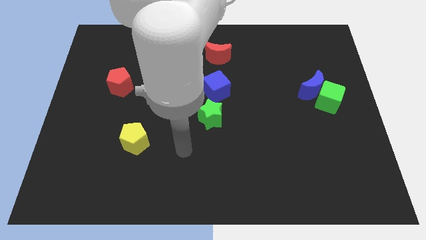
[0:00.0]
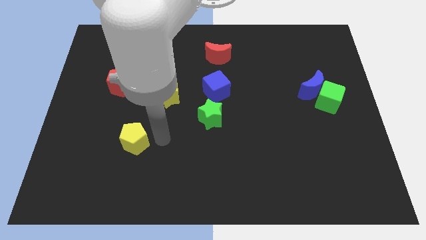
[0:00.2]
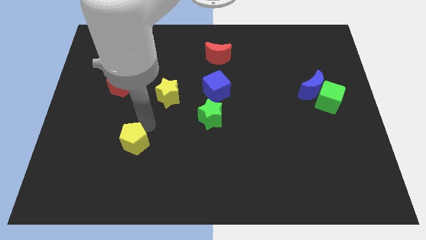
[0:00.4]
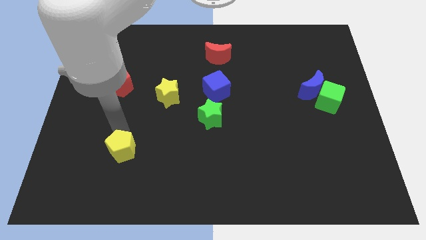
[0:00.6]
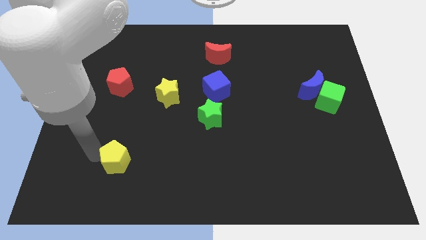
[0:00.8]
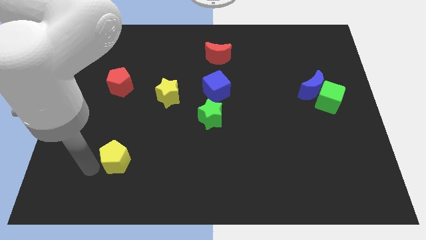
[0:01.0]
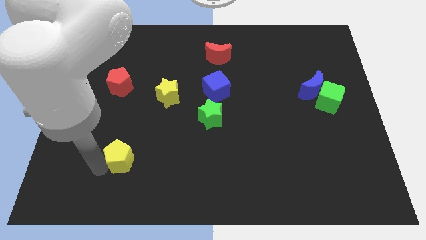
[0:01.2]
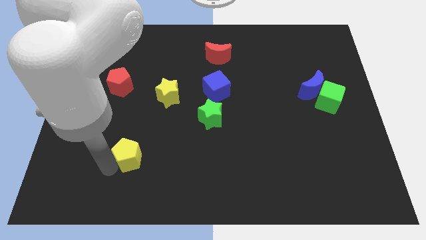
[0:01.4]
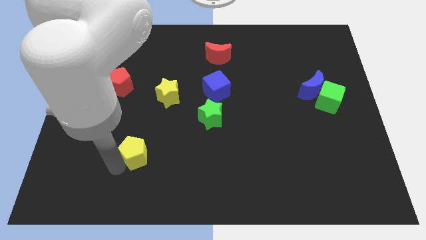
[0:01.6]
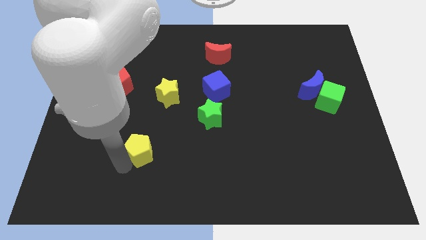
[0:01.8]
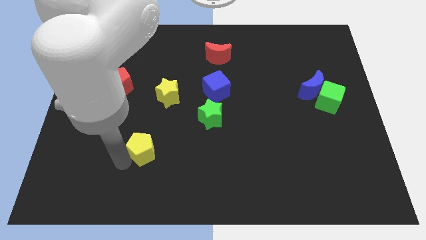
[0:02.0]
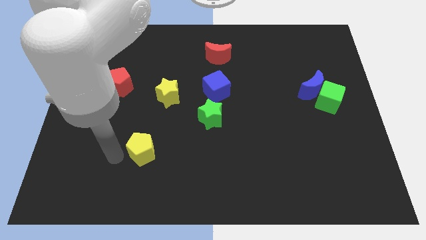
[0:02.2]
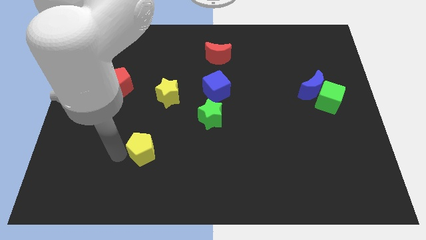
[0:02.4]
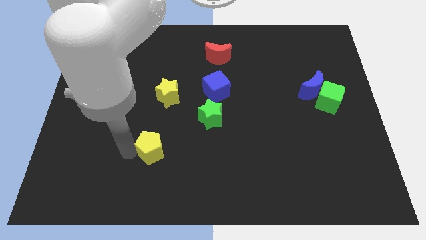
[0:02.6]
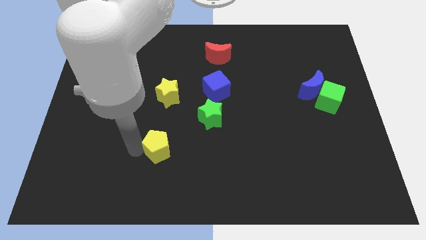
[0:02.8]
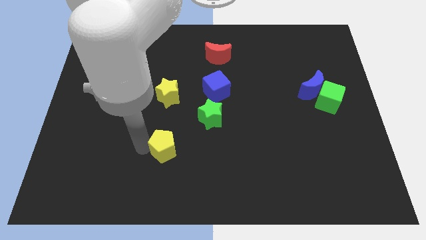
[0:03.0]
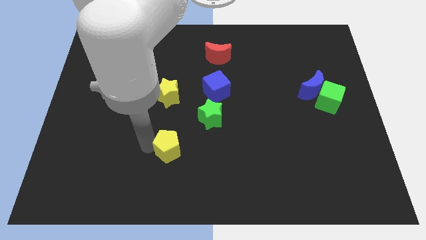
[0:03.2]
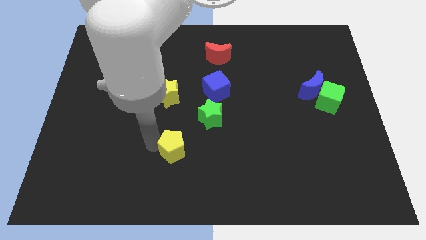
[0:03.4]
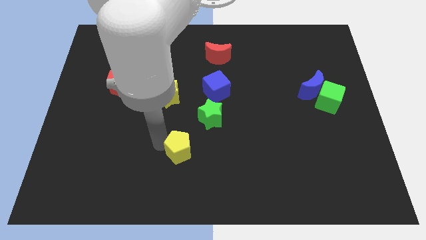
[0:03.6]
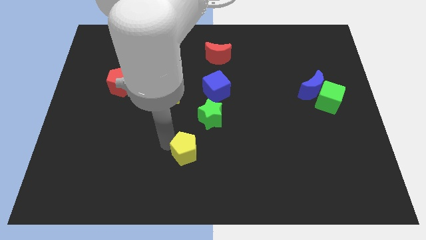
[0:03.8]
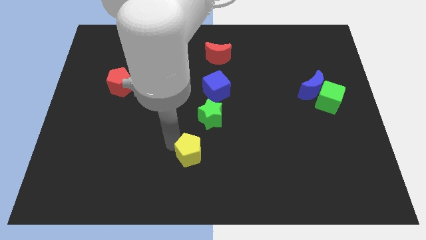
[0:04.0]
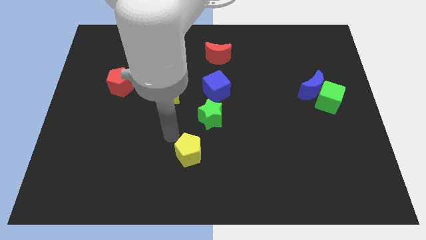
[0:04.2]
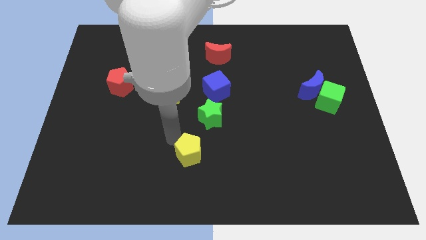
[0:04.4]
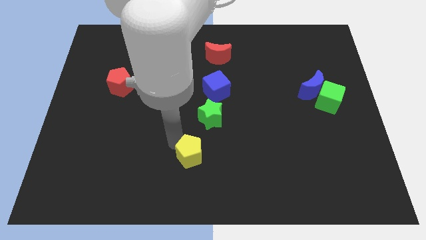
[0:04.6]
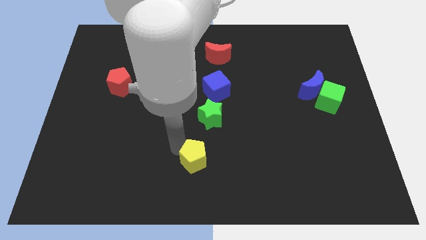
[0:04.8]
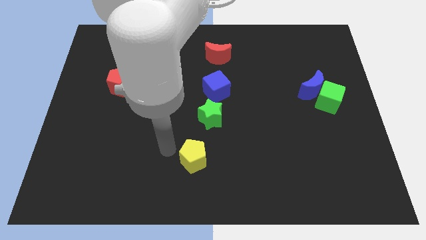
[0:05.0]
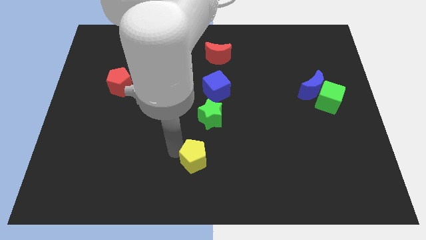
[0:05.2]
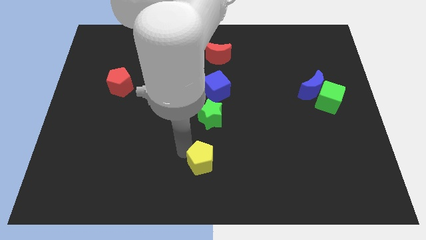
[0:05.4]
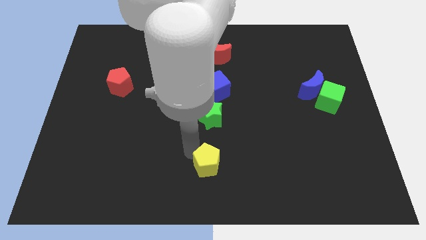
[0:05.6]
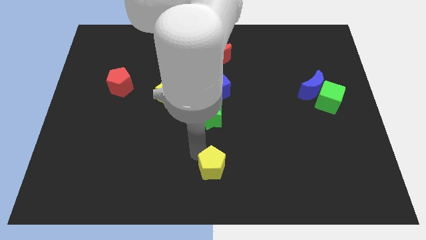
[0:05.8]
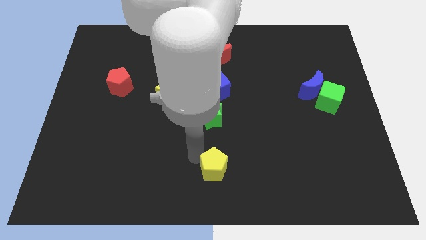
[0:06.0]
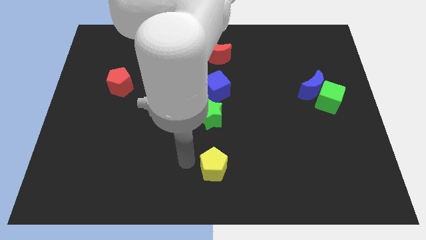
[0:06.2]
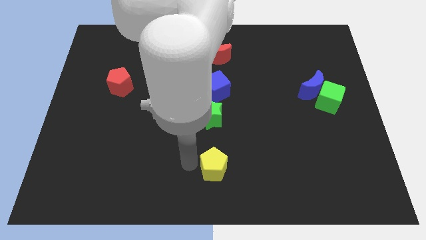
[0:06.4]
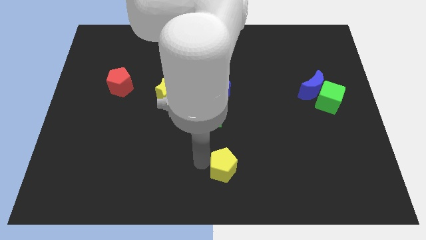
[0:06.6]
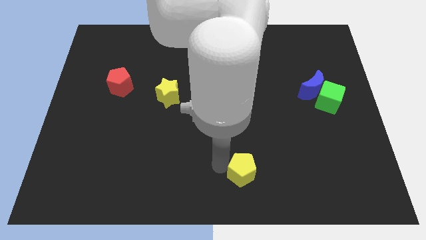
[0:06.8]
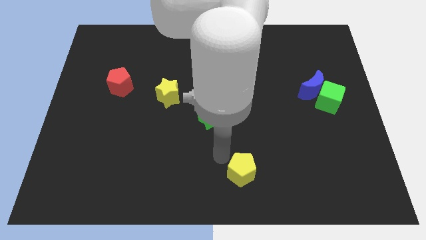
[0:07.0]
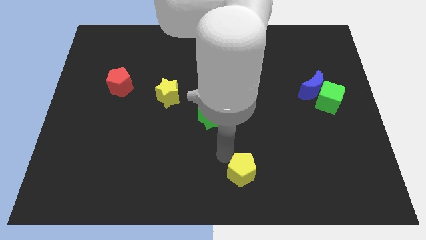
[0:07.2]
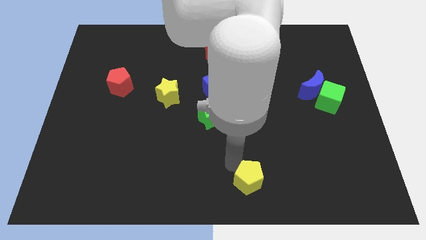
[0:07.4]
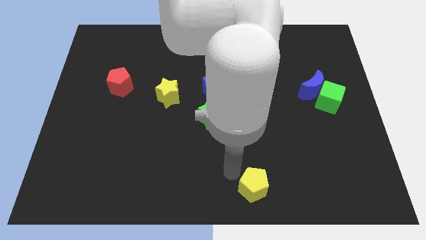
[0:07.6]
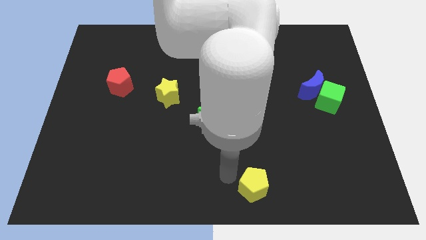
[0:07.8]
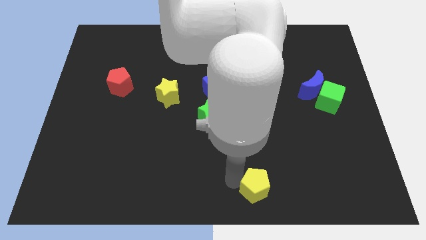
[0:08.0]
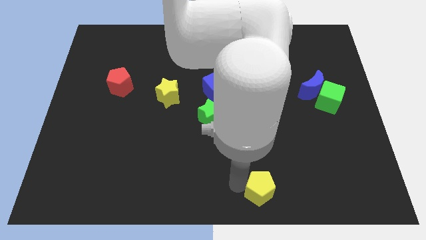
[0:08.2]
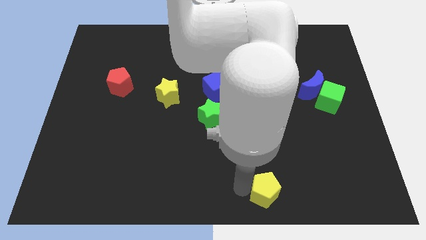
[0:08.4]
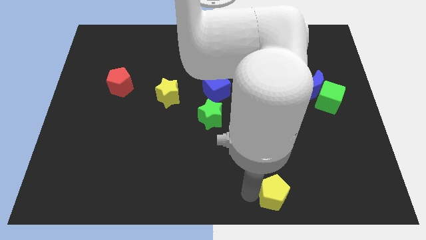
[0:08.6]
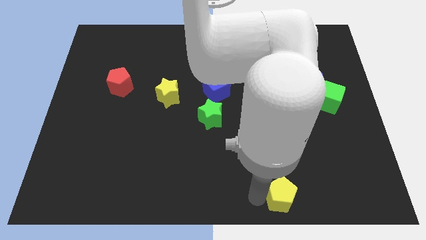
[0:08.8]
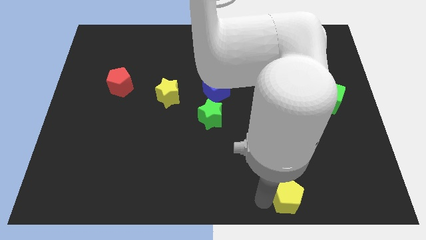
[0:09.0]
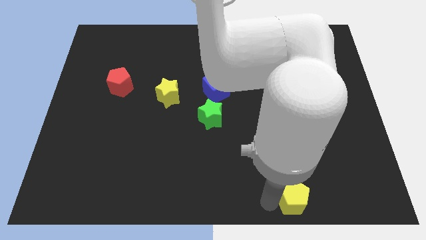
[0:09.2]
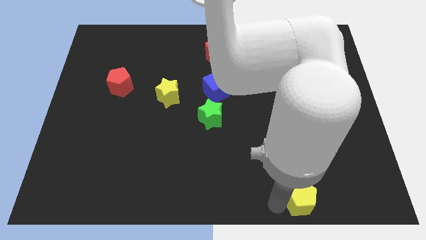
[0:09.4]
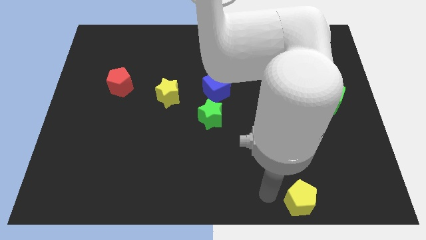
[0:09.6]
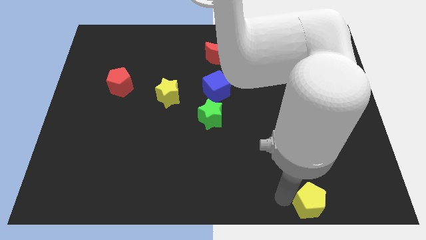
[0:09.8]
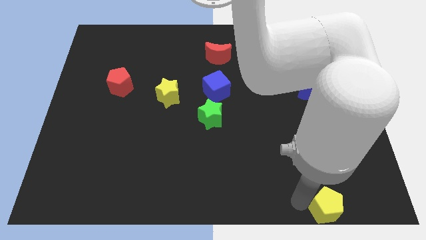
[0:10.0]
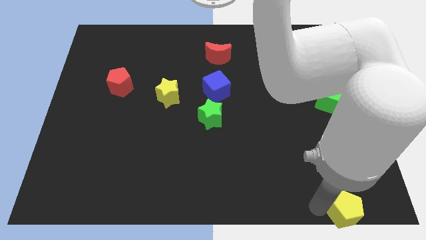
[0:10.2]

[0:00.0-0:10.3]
push the yellow pentagon to the bottom right of the board

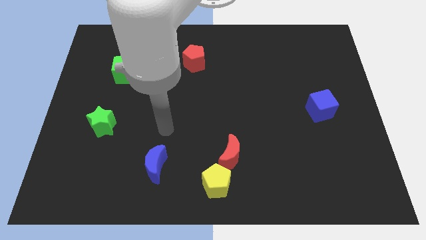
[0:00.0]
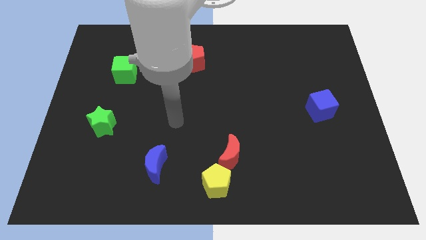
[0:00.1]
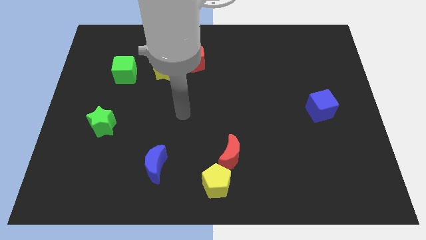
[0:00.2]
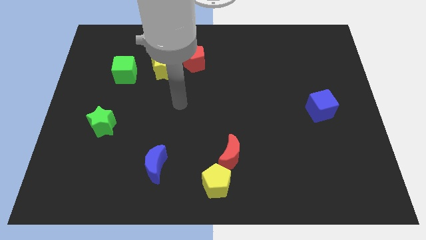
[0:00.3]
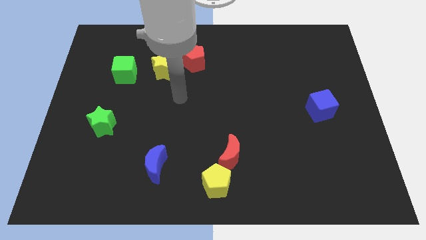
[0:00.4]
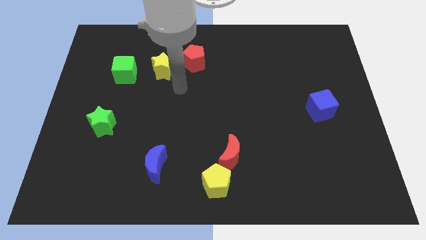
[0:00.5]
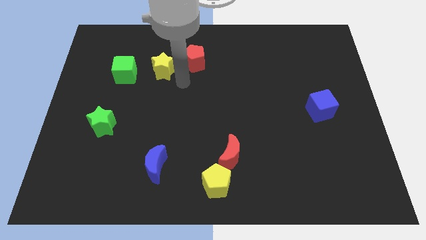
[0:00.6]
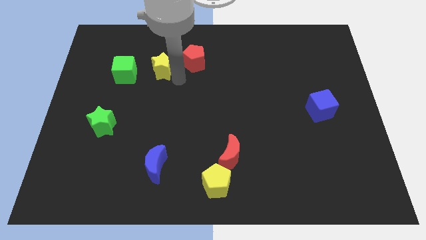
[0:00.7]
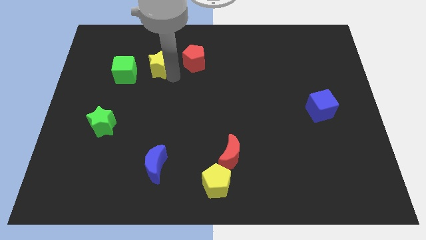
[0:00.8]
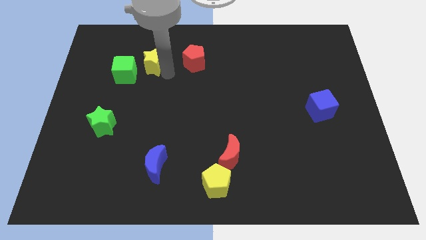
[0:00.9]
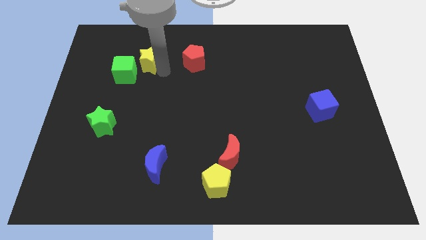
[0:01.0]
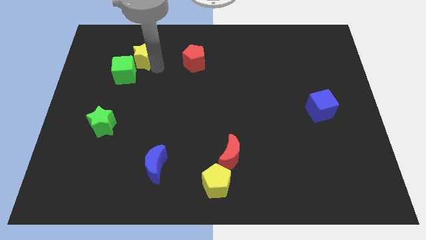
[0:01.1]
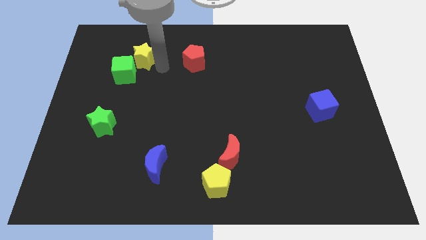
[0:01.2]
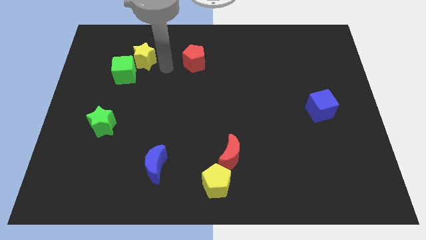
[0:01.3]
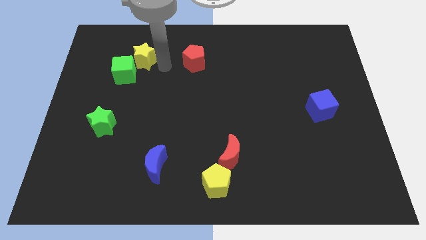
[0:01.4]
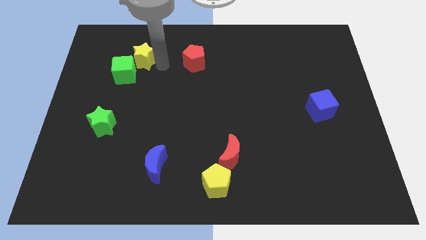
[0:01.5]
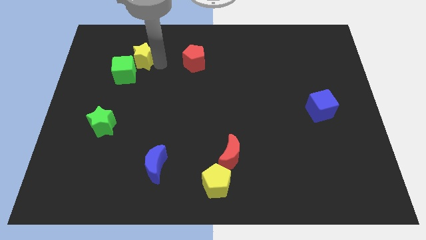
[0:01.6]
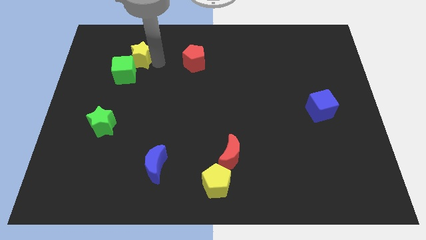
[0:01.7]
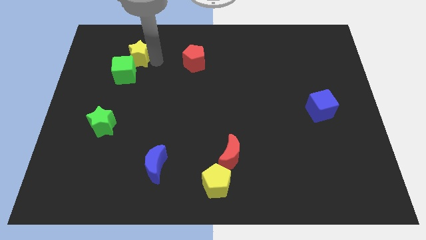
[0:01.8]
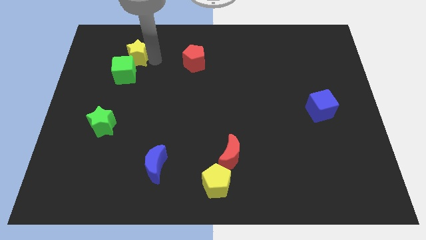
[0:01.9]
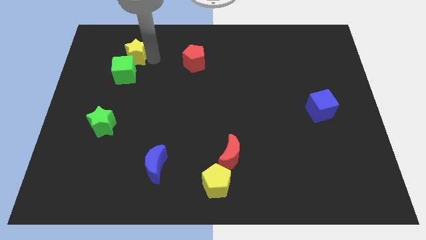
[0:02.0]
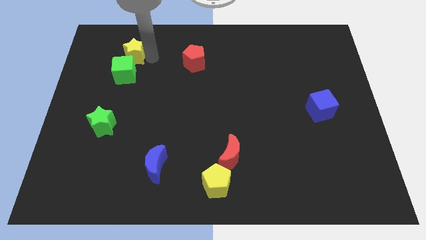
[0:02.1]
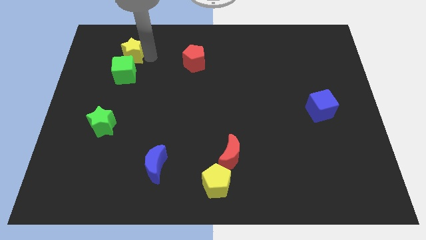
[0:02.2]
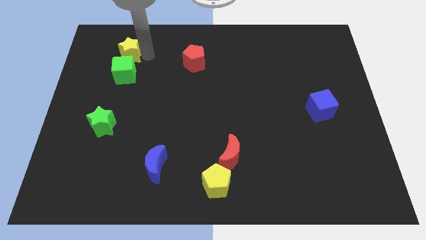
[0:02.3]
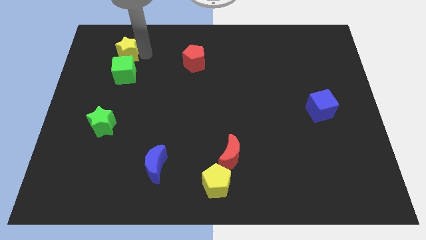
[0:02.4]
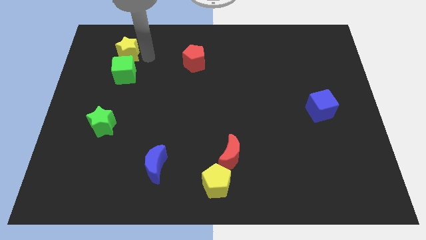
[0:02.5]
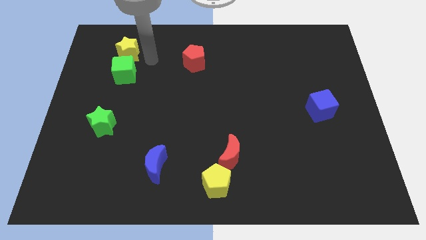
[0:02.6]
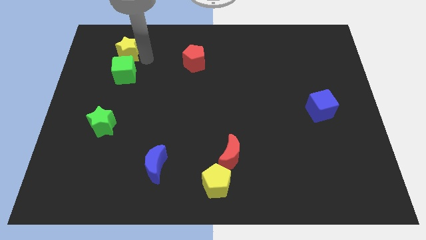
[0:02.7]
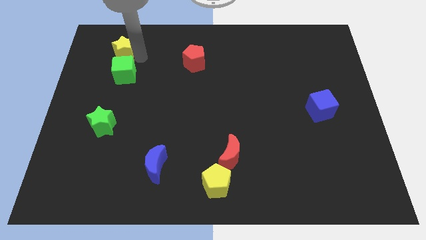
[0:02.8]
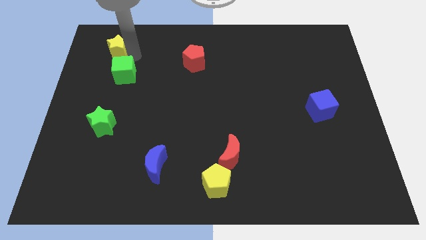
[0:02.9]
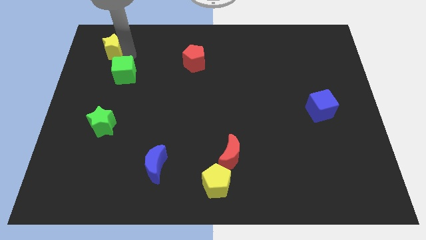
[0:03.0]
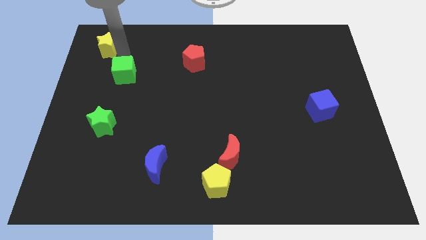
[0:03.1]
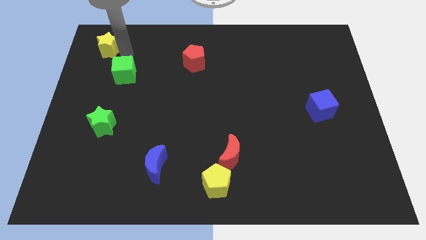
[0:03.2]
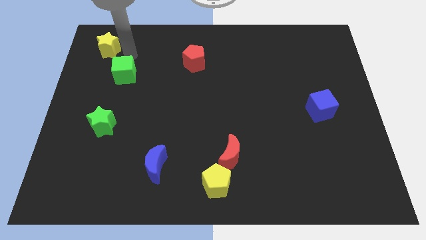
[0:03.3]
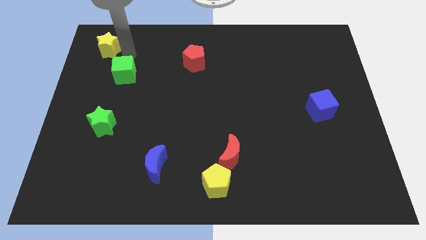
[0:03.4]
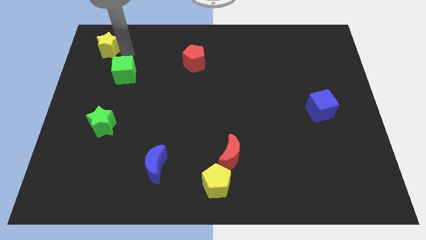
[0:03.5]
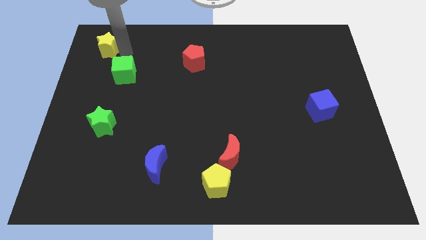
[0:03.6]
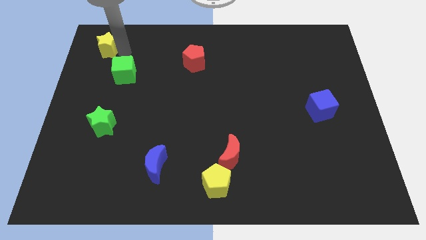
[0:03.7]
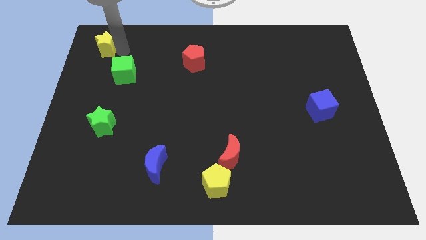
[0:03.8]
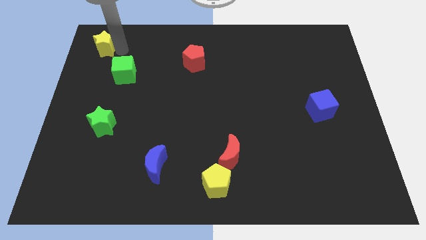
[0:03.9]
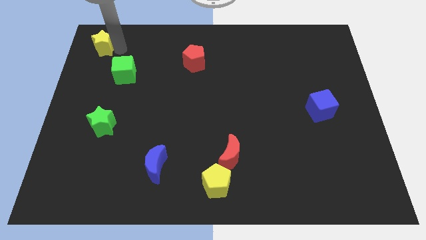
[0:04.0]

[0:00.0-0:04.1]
move the yellow star to the upper left corner
